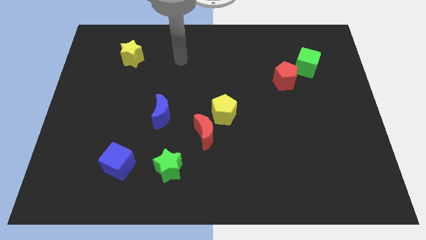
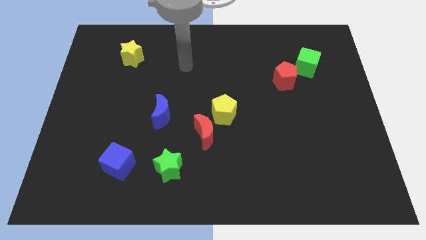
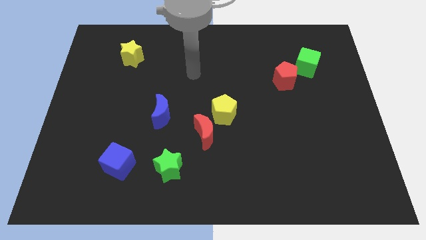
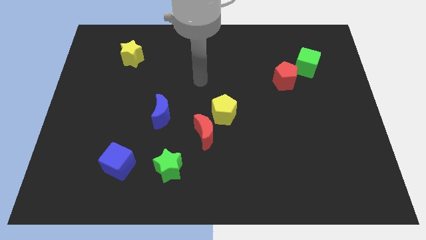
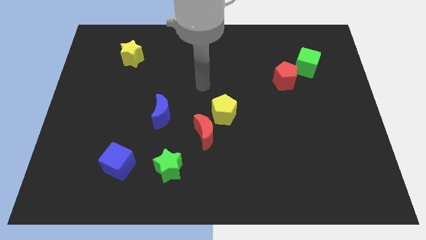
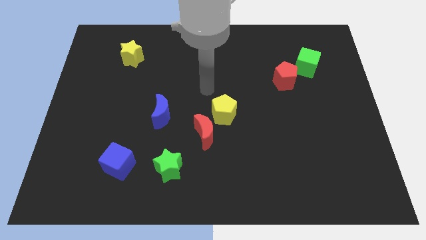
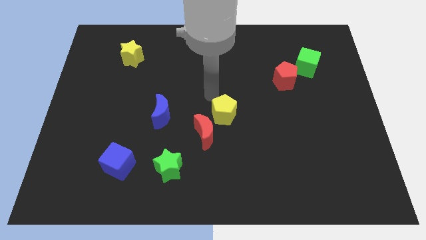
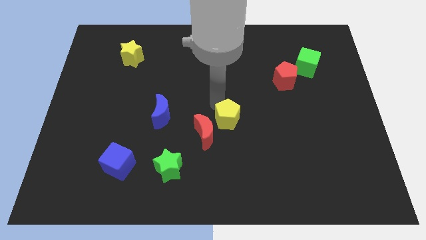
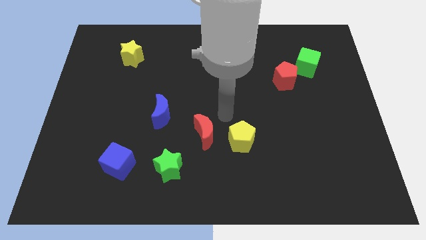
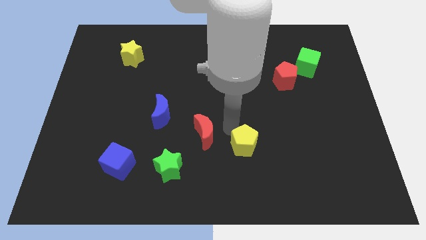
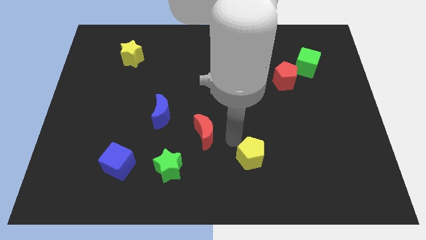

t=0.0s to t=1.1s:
move the red moon away from the yellow pentagon

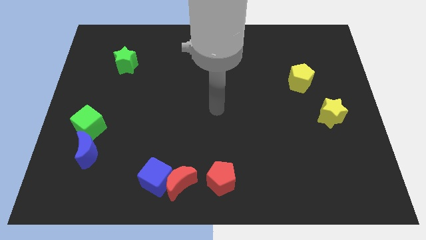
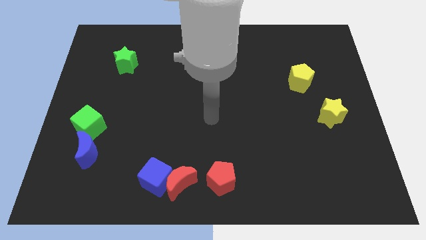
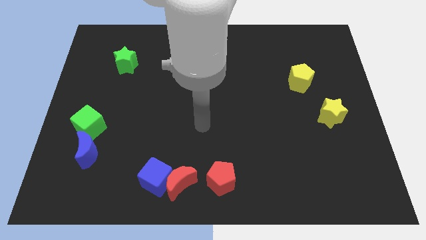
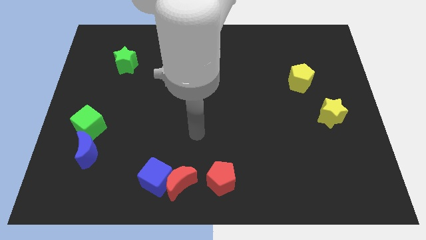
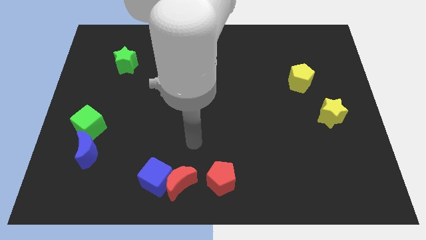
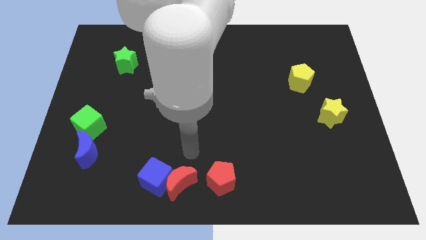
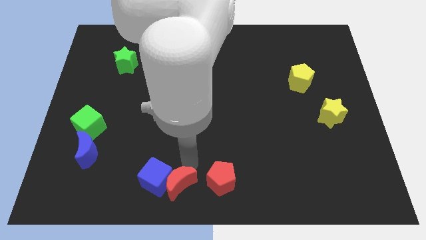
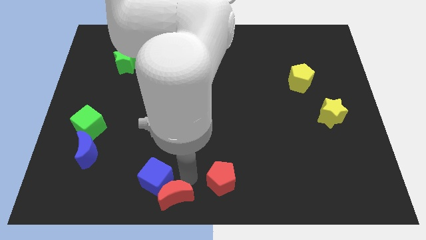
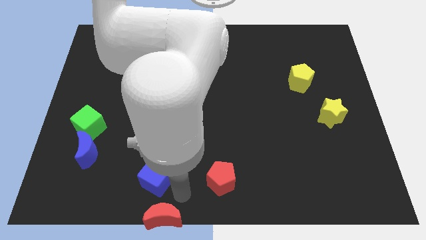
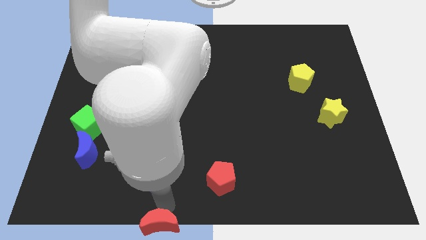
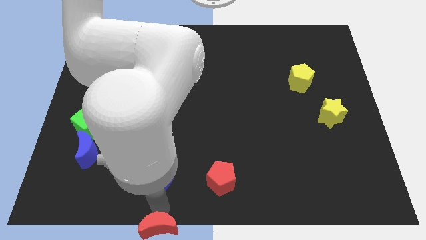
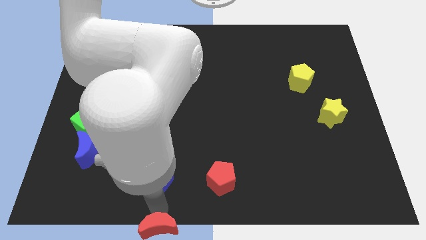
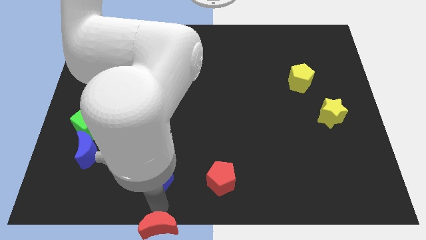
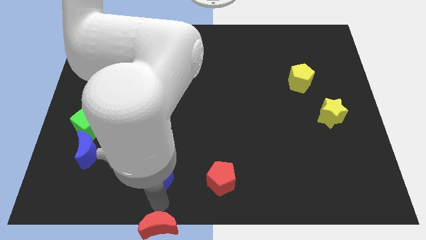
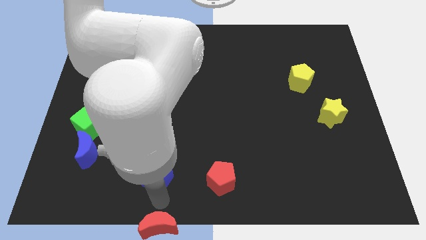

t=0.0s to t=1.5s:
separate the blue cube from the red moon

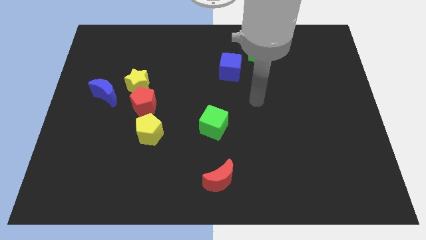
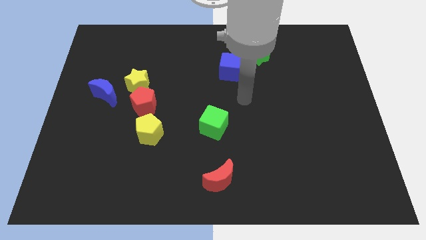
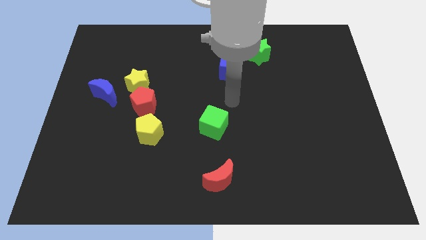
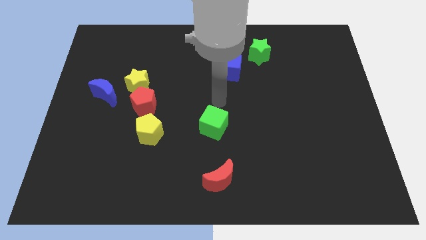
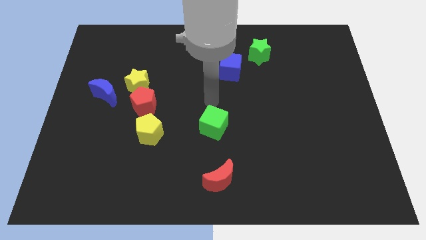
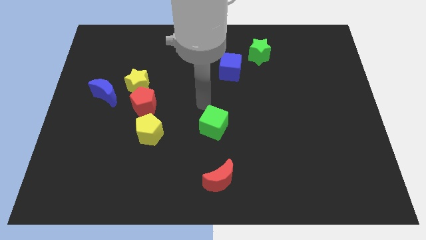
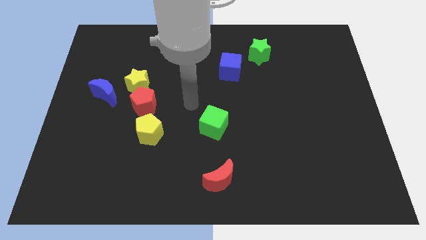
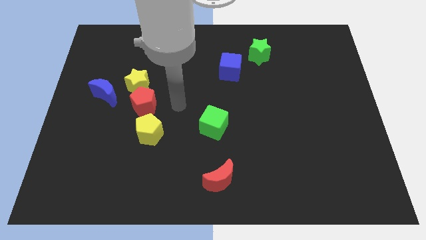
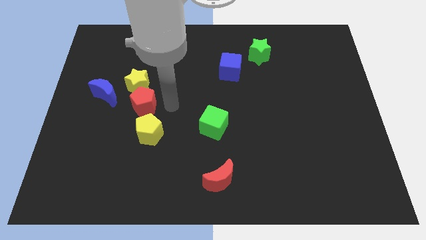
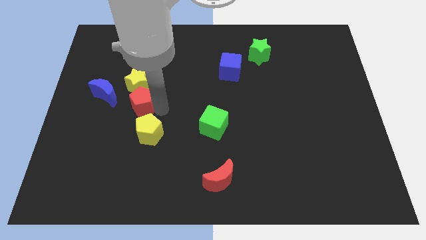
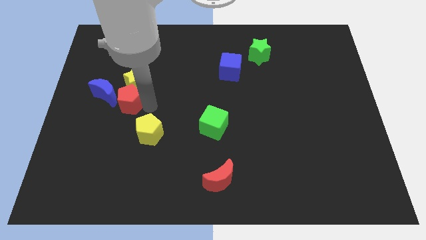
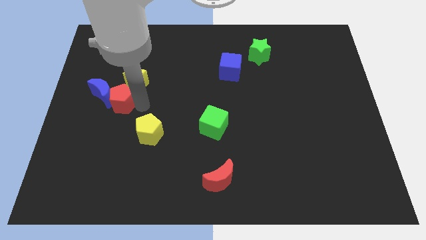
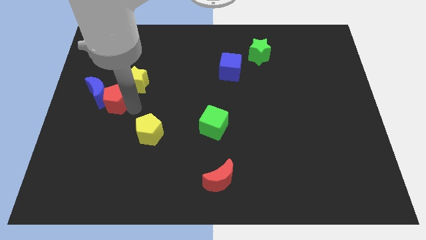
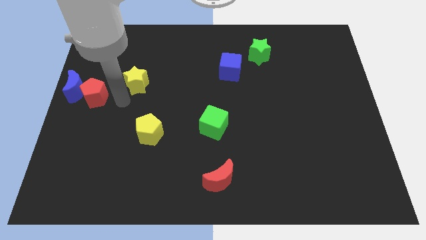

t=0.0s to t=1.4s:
move the yellow star away from the red pentagon and blue moon

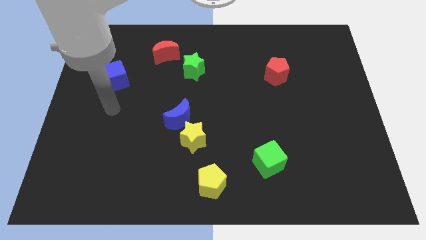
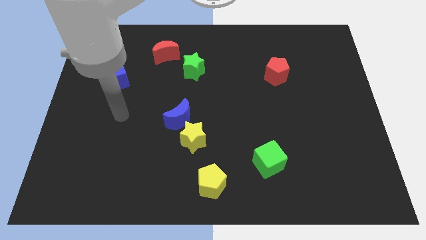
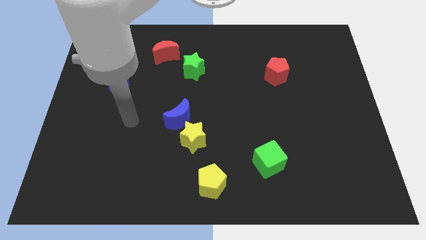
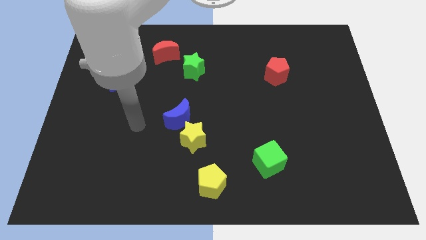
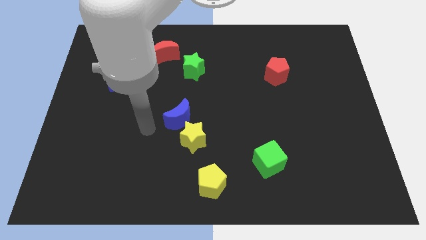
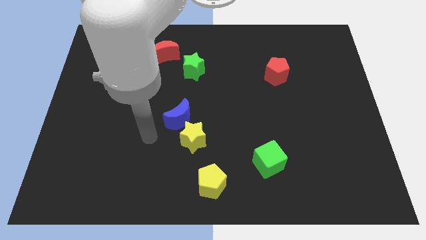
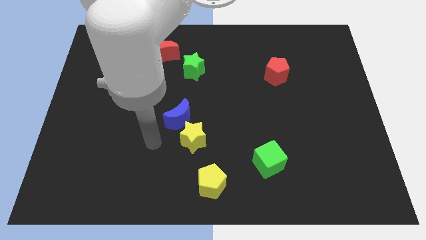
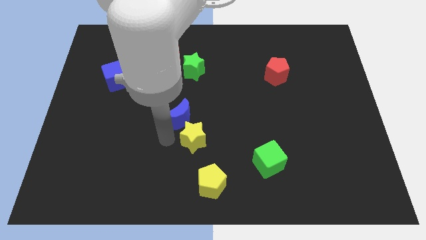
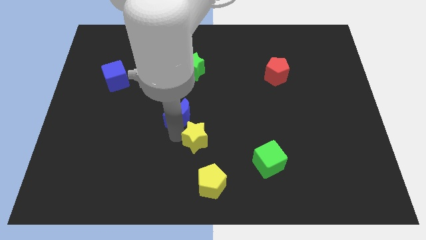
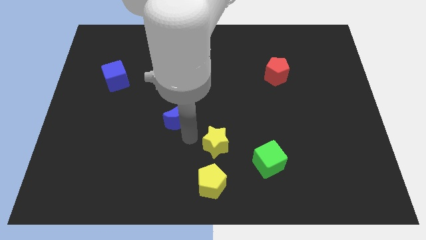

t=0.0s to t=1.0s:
pull the blue moon apart from the yellow star

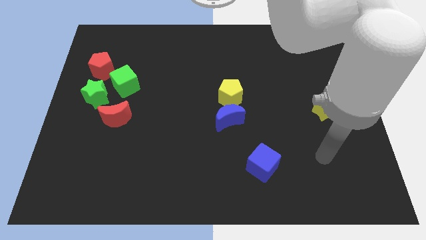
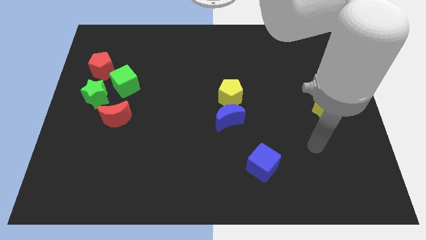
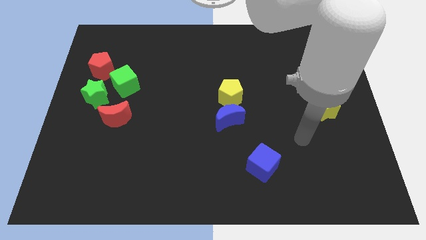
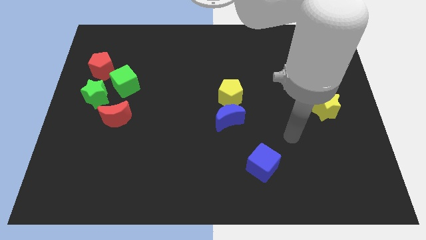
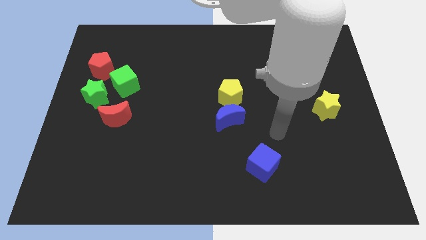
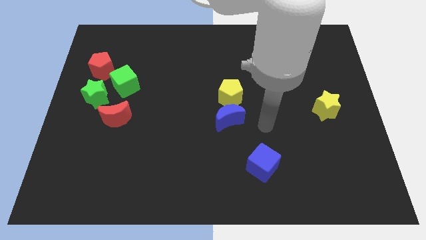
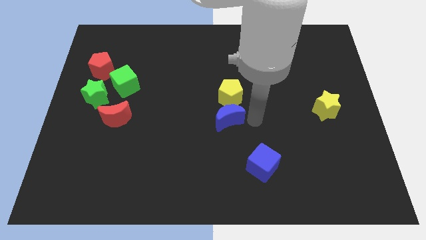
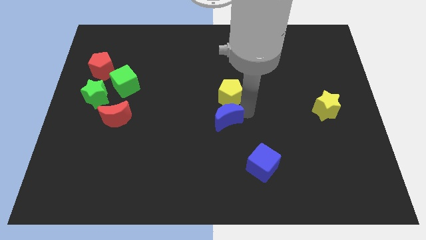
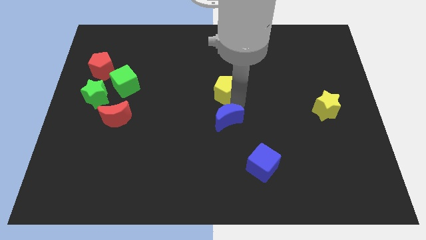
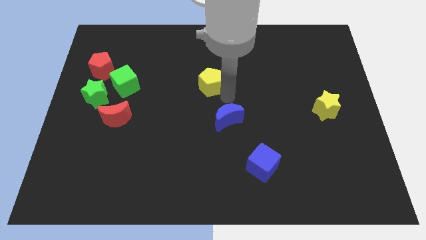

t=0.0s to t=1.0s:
pull the blue moon apart from the yellow pentagon

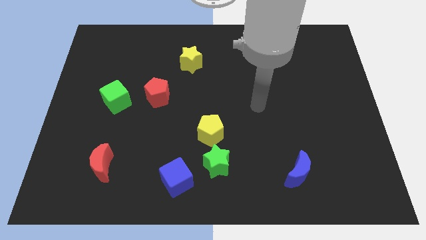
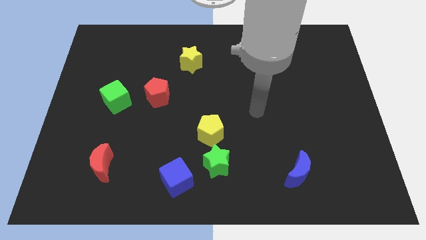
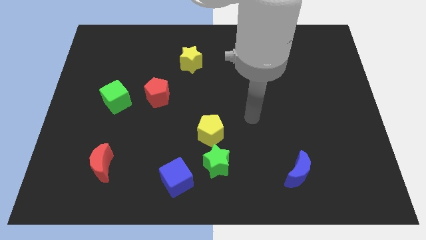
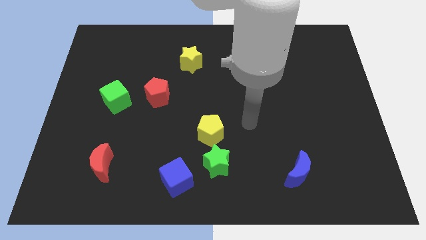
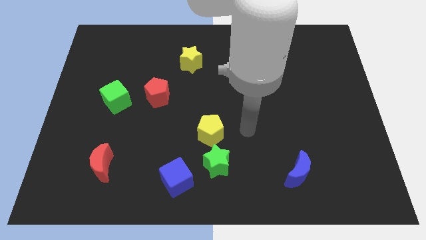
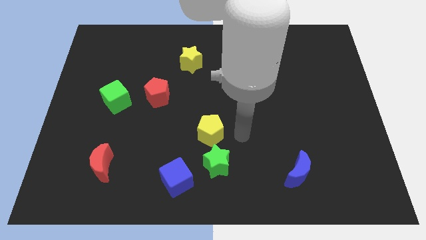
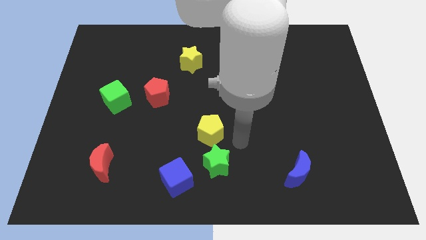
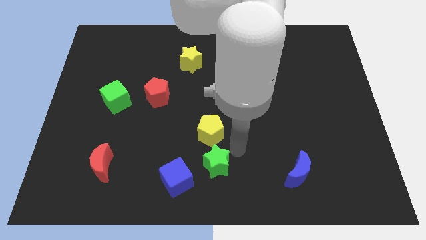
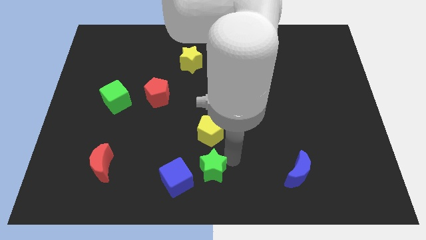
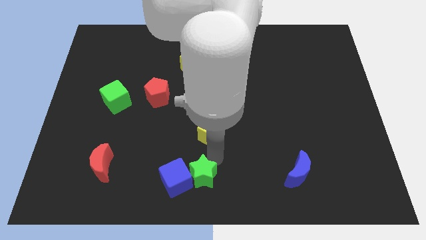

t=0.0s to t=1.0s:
move the yellow pentagon away from the green star

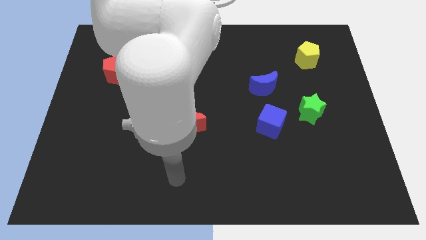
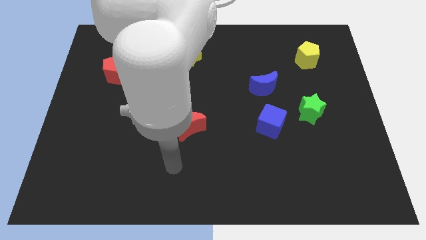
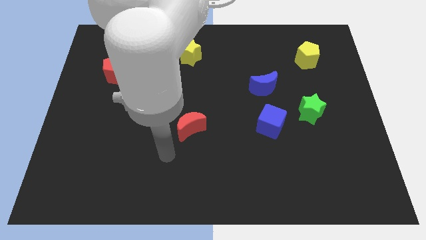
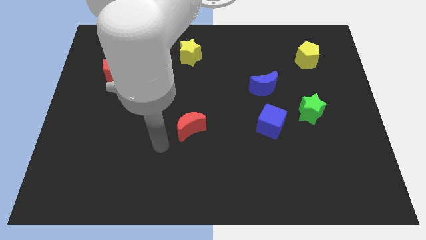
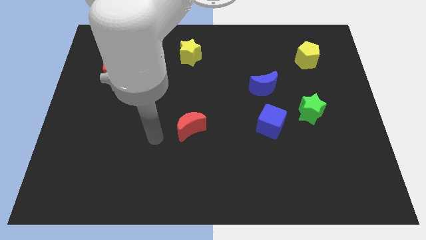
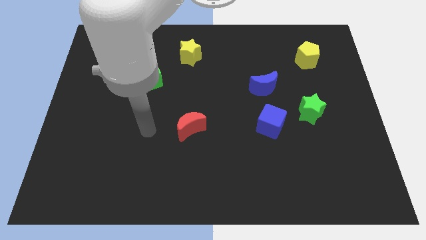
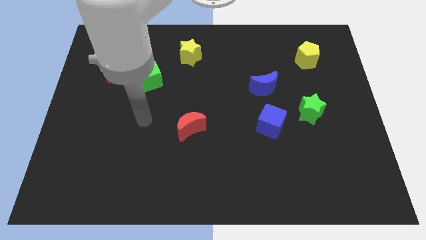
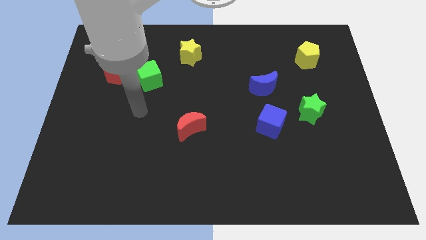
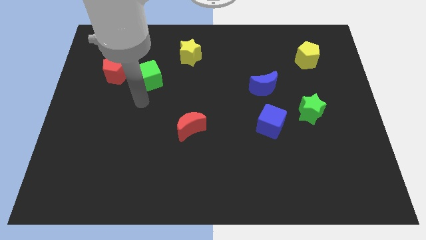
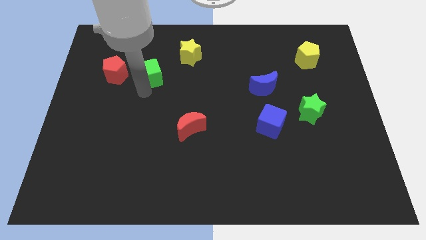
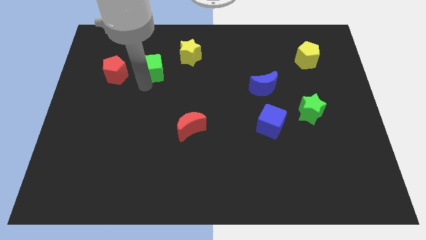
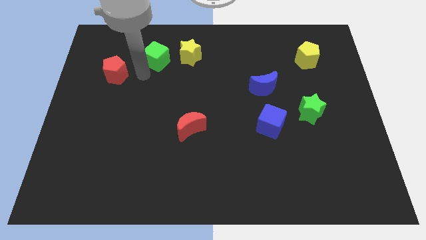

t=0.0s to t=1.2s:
move the red pentagon away from the green cube

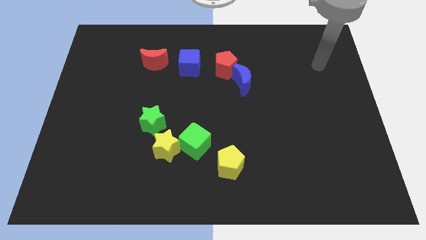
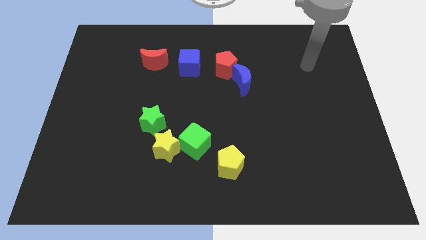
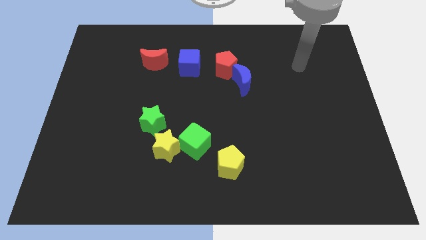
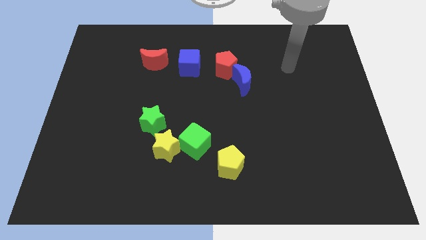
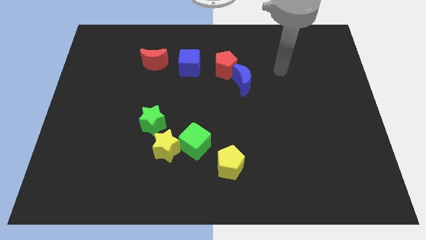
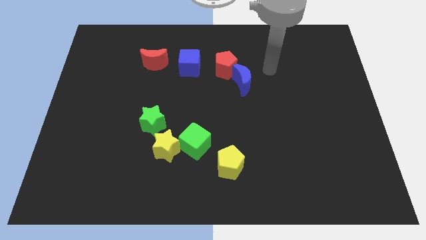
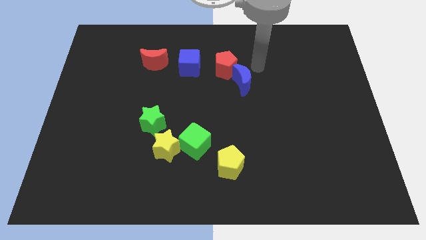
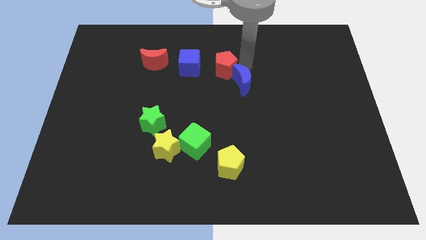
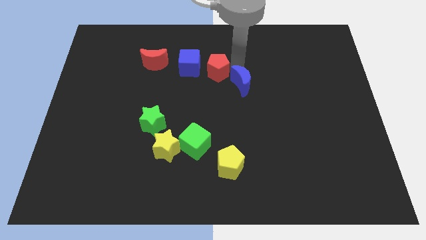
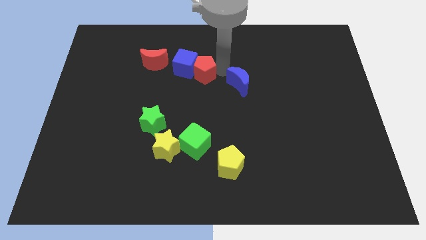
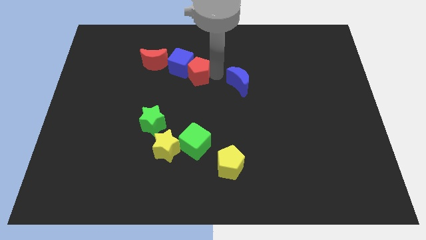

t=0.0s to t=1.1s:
pull the blue moon apart from the red pentagon
